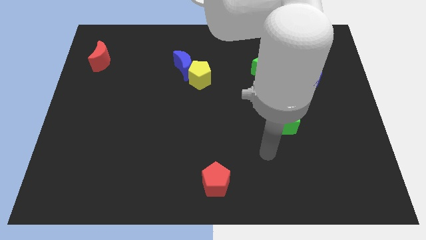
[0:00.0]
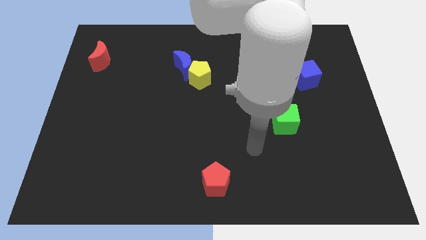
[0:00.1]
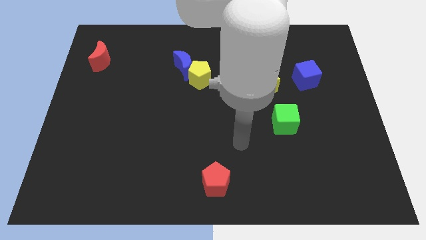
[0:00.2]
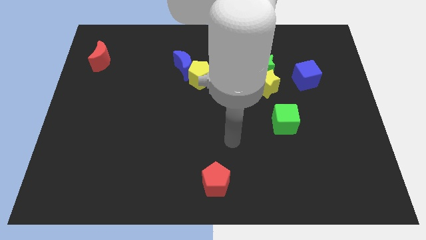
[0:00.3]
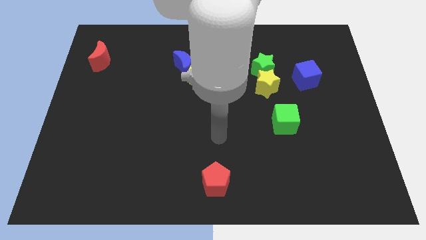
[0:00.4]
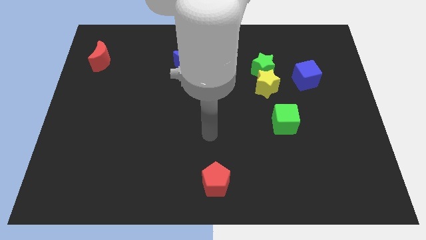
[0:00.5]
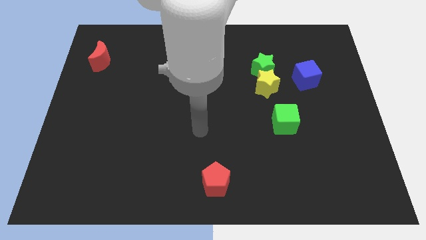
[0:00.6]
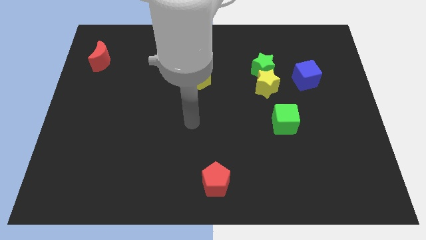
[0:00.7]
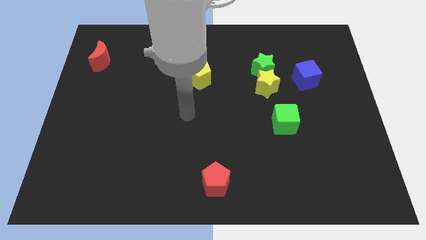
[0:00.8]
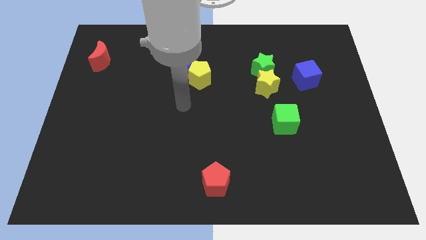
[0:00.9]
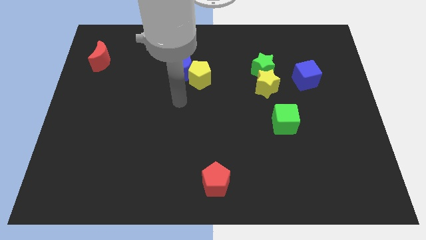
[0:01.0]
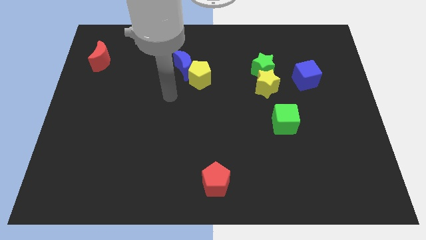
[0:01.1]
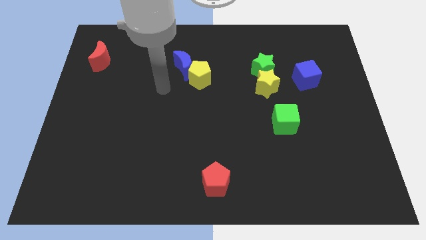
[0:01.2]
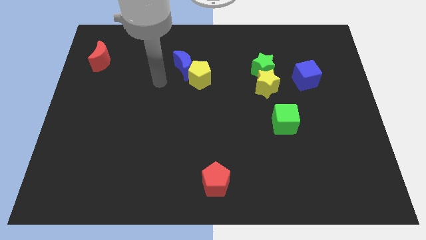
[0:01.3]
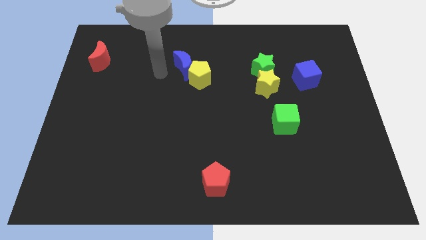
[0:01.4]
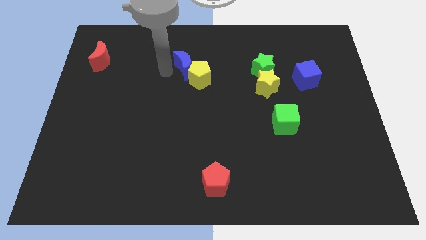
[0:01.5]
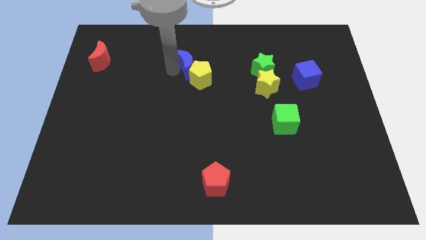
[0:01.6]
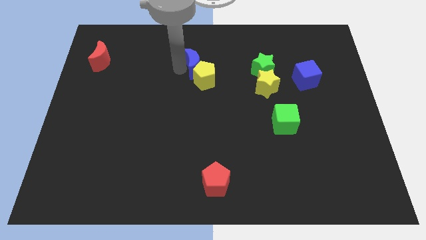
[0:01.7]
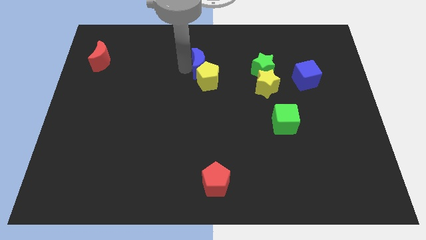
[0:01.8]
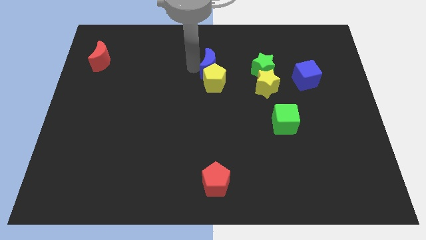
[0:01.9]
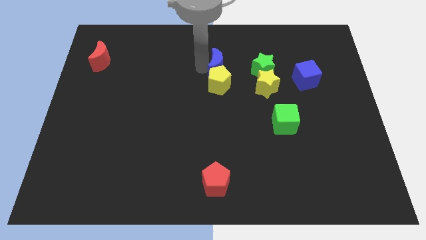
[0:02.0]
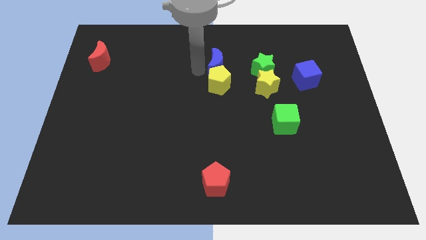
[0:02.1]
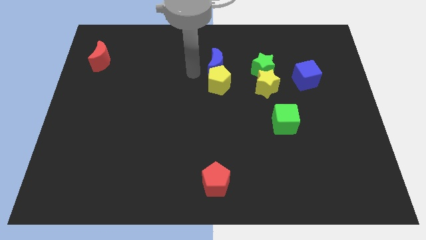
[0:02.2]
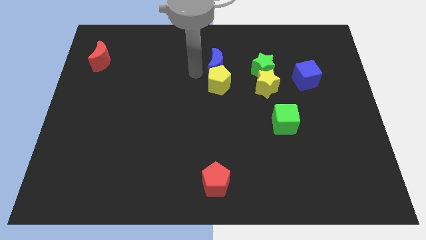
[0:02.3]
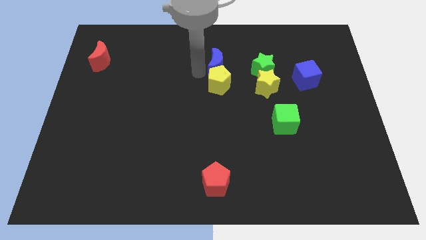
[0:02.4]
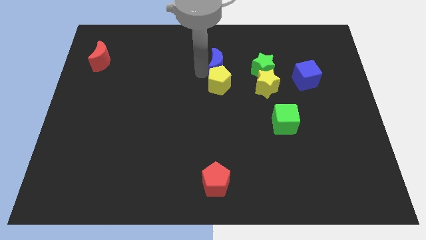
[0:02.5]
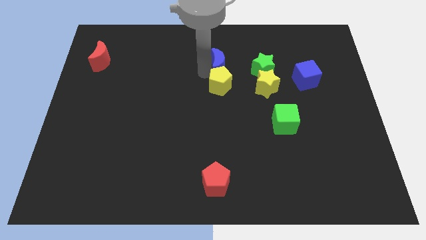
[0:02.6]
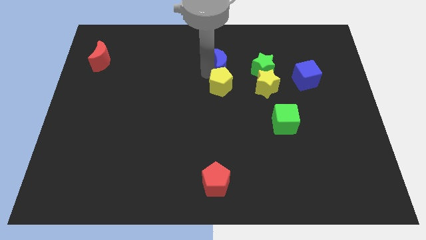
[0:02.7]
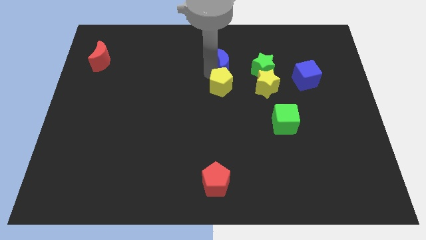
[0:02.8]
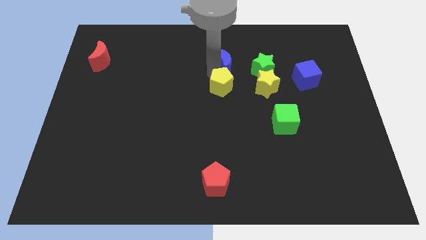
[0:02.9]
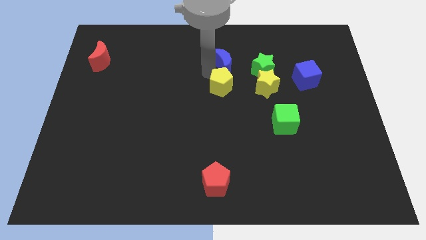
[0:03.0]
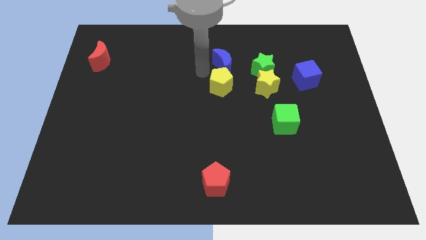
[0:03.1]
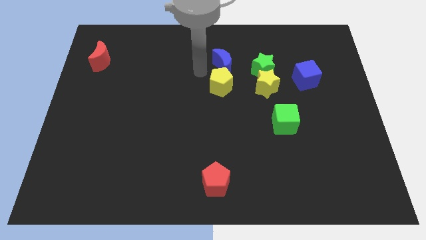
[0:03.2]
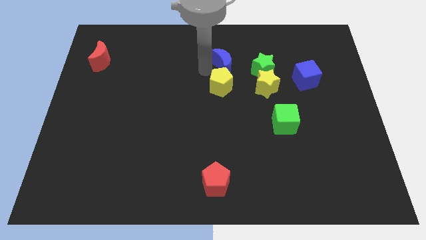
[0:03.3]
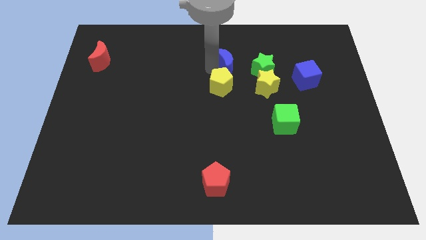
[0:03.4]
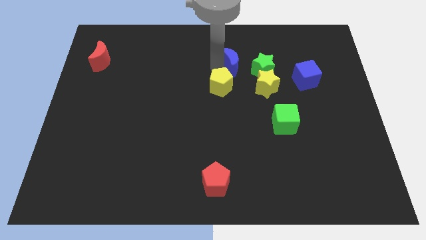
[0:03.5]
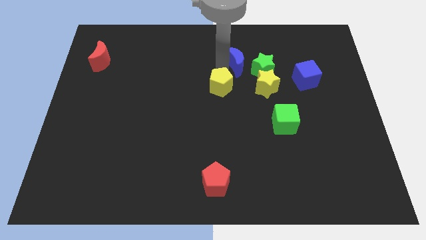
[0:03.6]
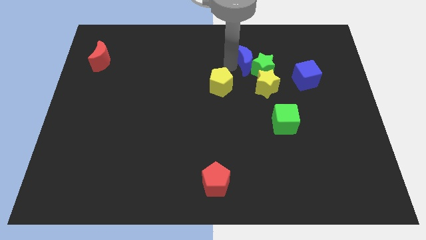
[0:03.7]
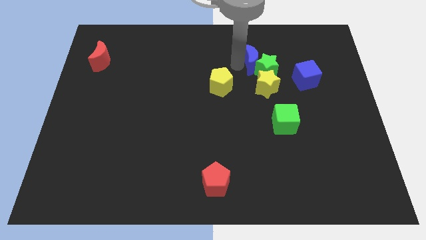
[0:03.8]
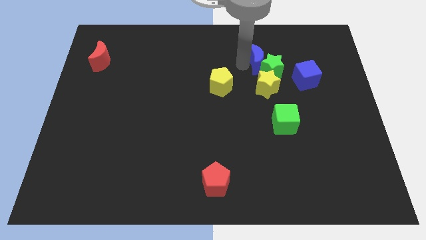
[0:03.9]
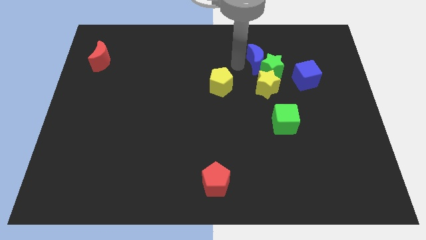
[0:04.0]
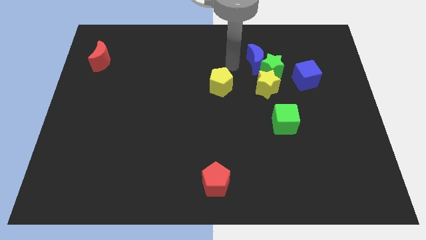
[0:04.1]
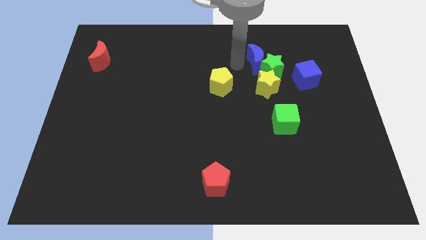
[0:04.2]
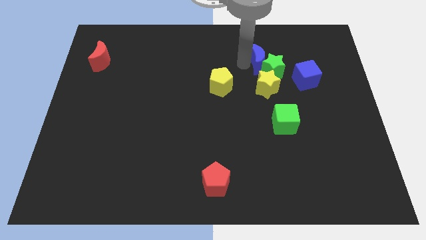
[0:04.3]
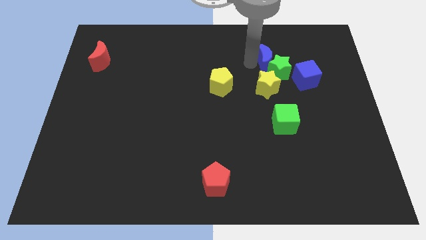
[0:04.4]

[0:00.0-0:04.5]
slide the blue moon to the right

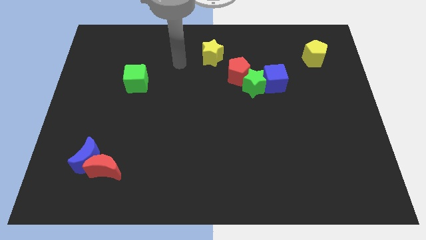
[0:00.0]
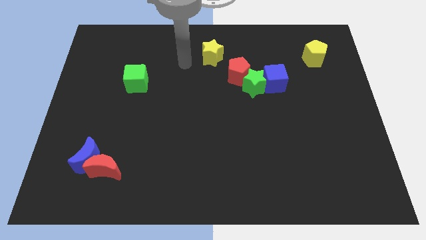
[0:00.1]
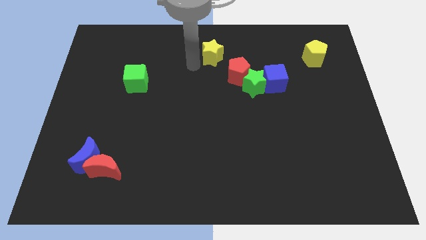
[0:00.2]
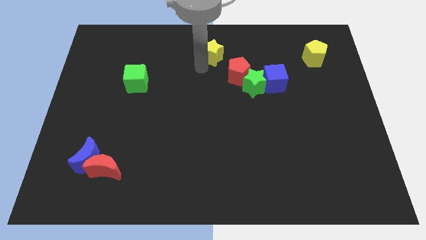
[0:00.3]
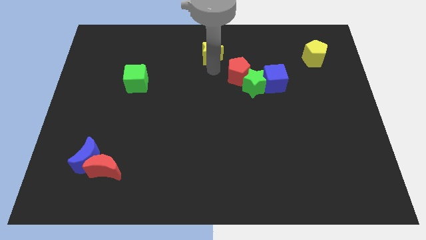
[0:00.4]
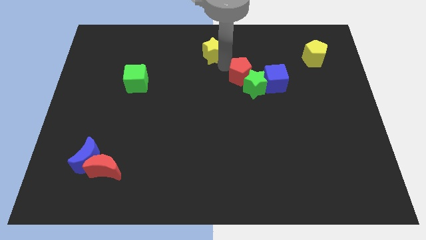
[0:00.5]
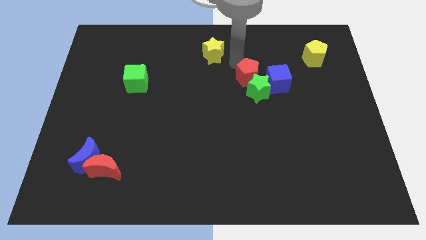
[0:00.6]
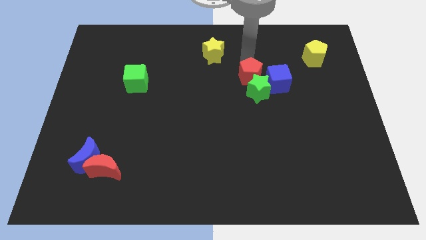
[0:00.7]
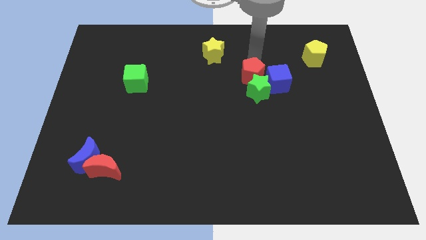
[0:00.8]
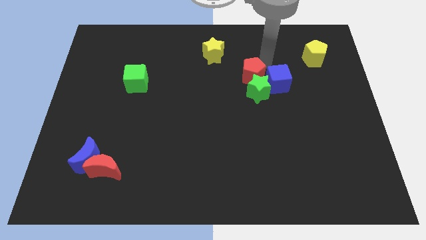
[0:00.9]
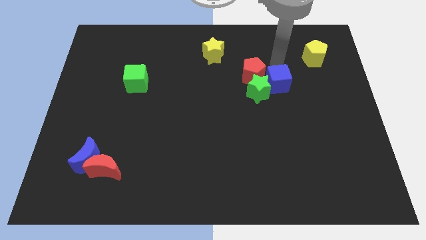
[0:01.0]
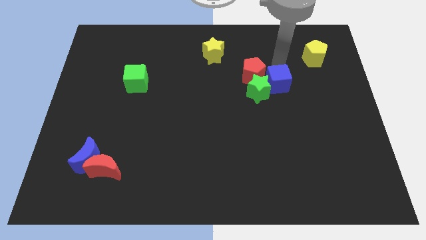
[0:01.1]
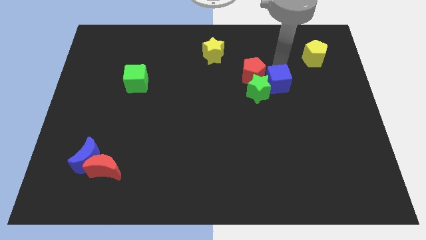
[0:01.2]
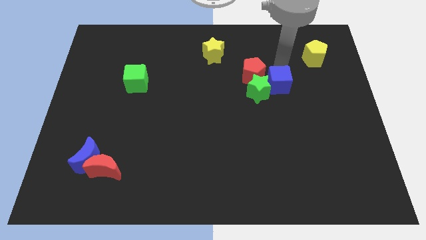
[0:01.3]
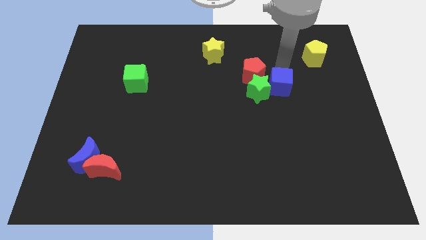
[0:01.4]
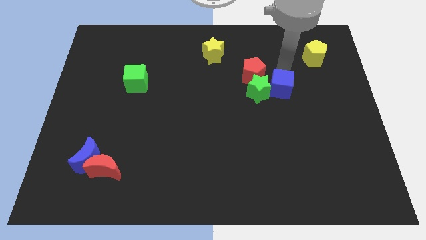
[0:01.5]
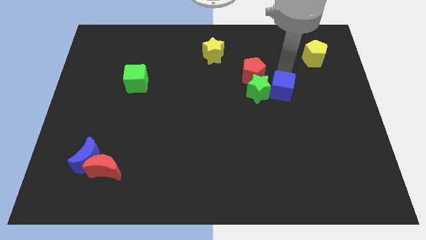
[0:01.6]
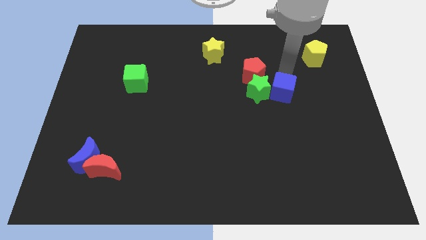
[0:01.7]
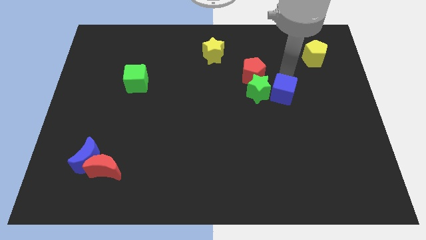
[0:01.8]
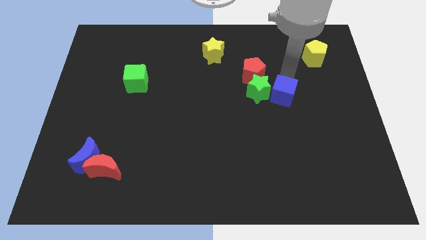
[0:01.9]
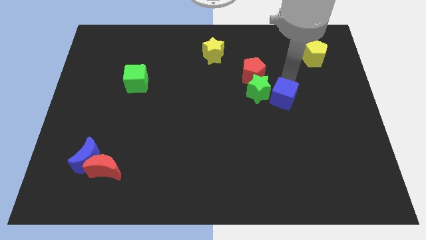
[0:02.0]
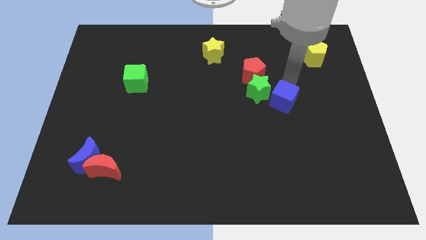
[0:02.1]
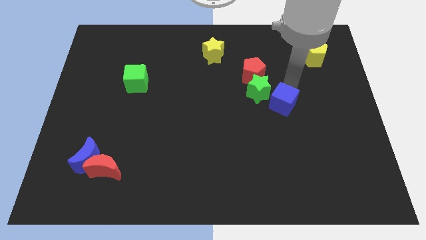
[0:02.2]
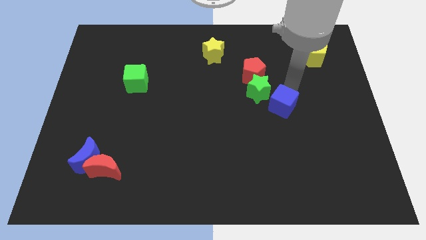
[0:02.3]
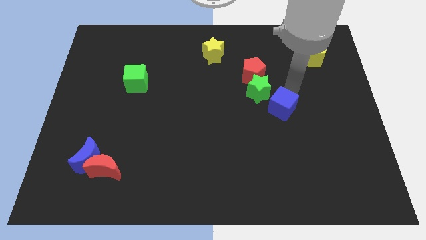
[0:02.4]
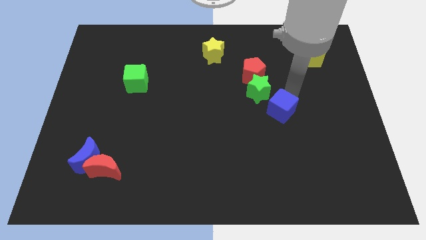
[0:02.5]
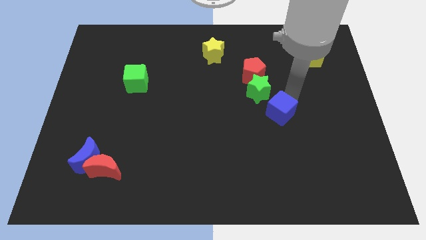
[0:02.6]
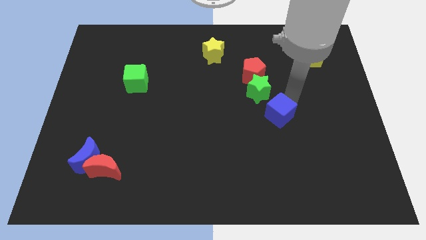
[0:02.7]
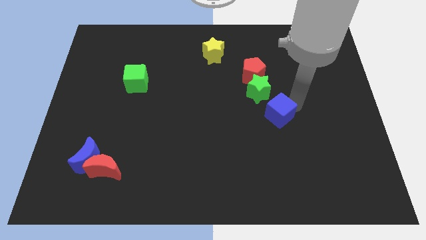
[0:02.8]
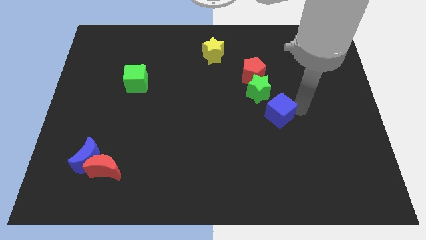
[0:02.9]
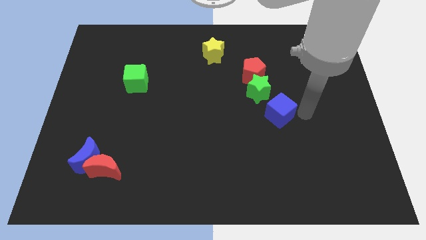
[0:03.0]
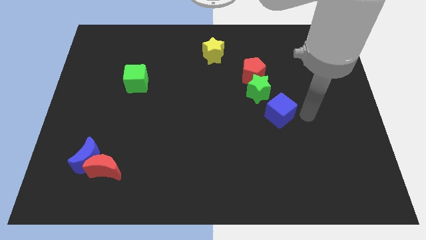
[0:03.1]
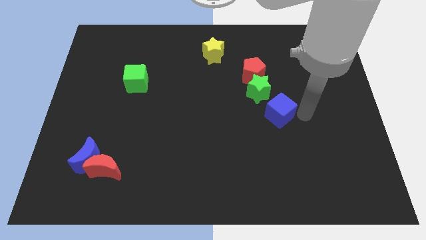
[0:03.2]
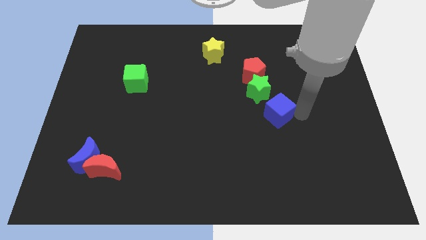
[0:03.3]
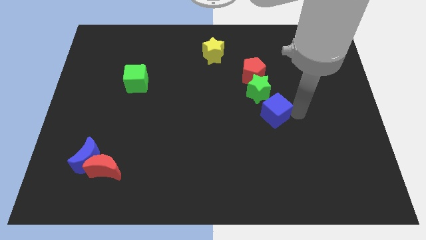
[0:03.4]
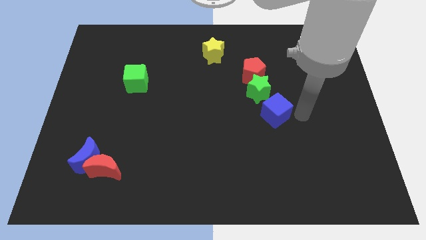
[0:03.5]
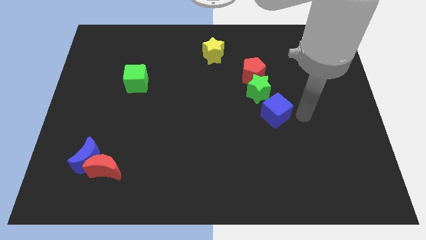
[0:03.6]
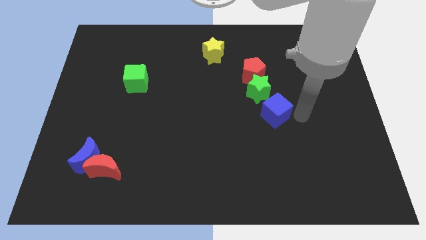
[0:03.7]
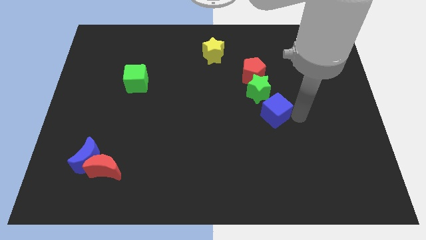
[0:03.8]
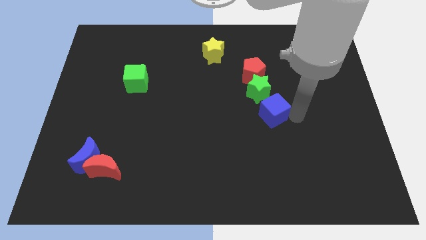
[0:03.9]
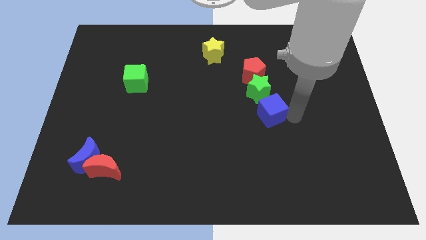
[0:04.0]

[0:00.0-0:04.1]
move the blue cube a little down and to the left
